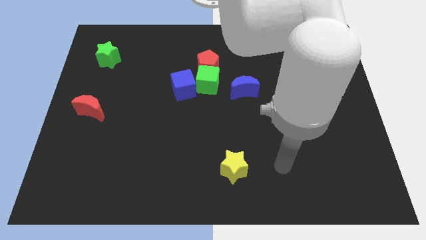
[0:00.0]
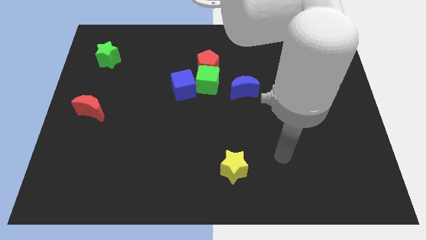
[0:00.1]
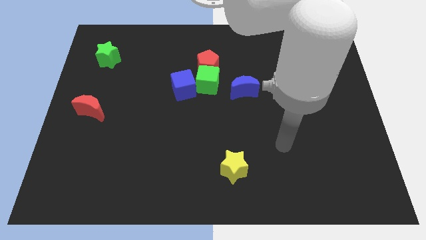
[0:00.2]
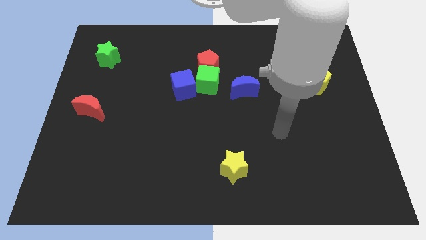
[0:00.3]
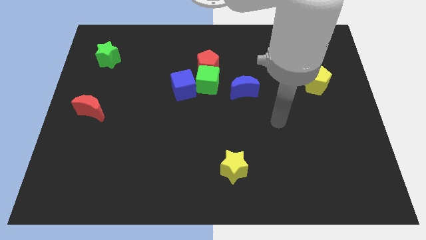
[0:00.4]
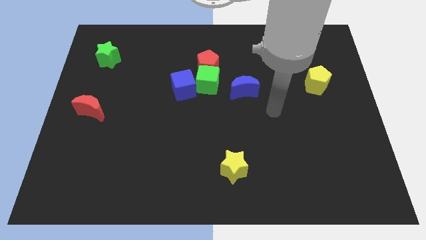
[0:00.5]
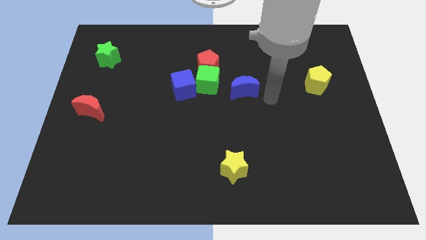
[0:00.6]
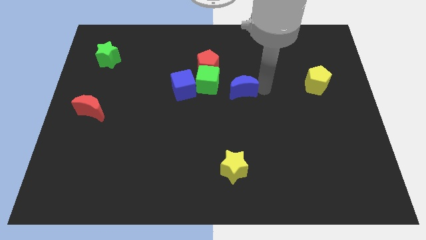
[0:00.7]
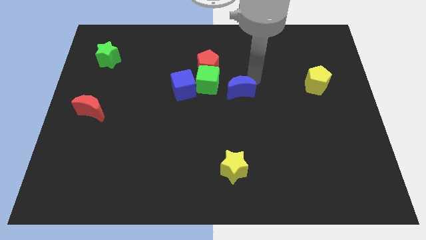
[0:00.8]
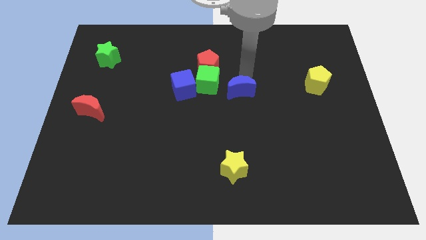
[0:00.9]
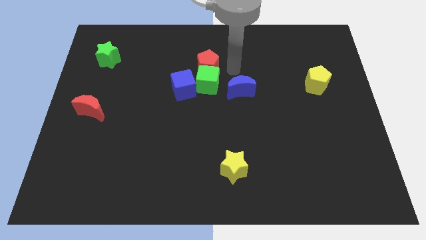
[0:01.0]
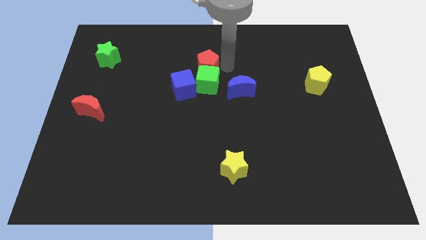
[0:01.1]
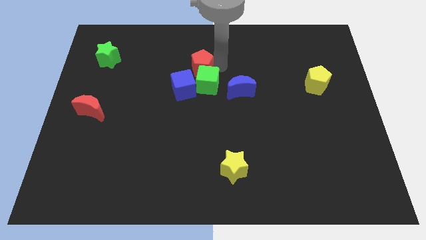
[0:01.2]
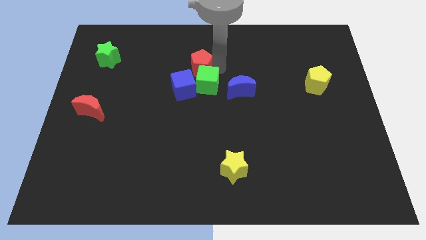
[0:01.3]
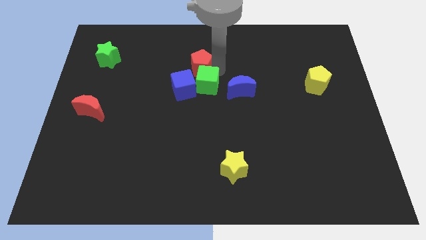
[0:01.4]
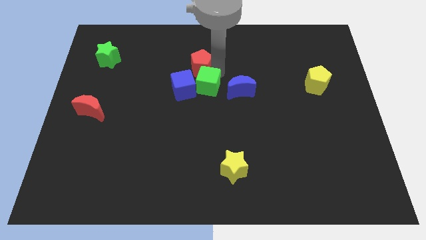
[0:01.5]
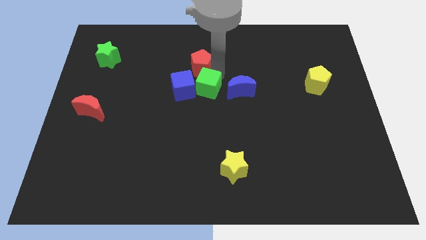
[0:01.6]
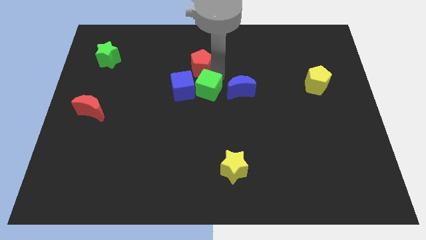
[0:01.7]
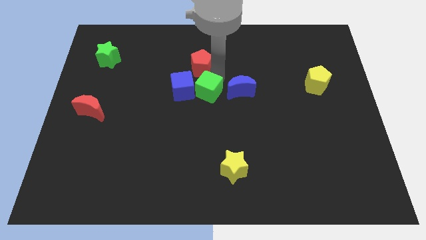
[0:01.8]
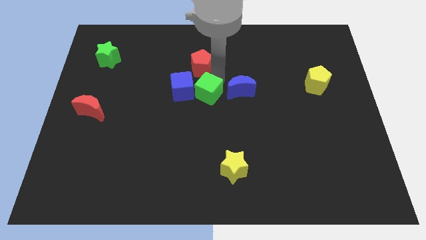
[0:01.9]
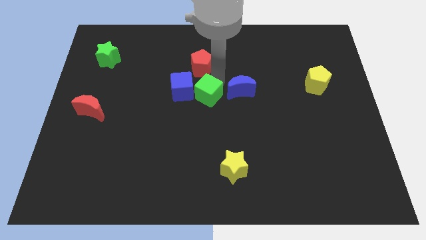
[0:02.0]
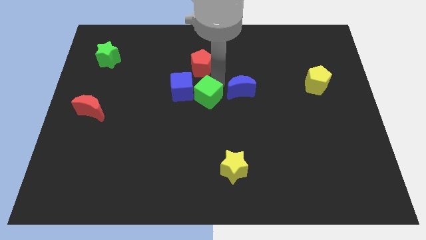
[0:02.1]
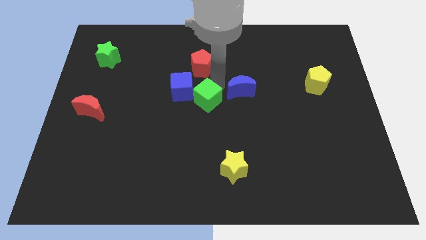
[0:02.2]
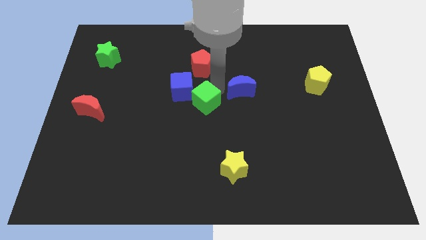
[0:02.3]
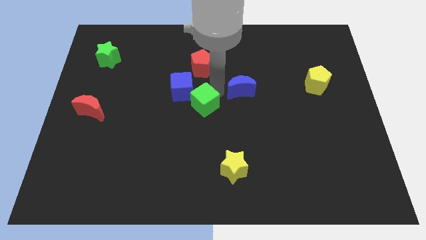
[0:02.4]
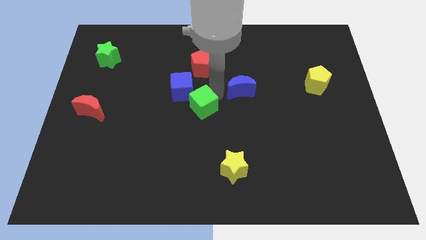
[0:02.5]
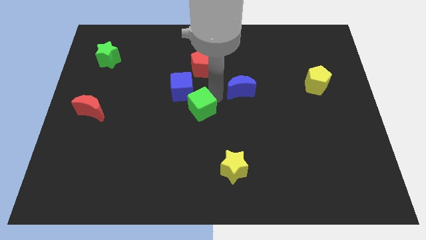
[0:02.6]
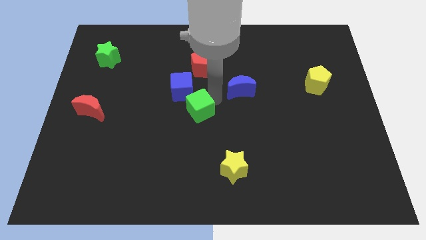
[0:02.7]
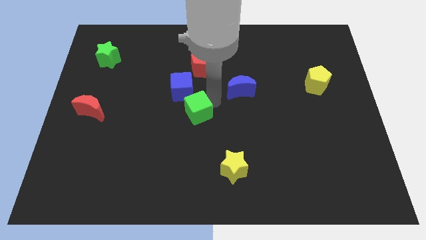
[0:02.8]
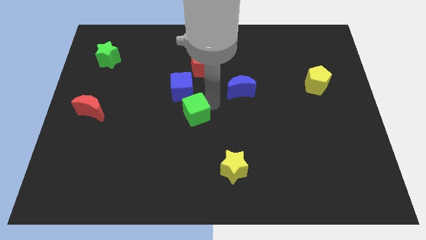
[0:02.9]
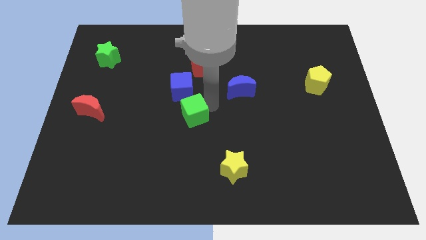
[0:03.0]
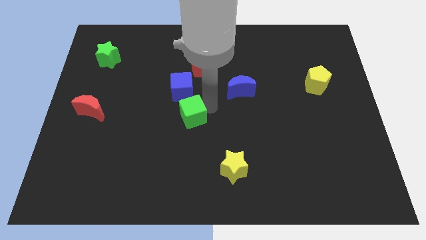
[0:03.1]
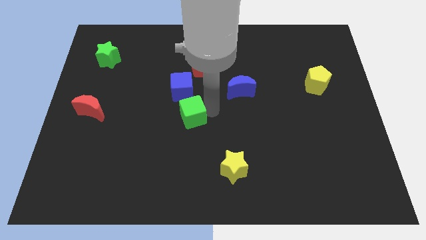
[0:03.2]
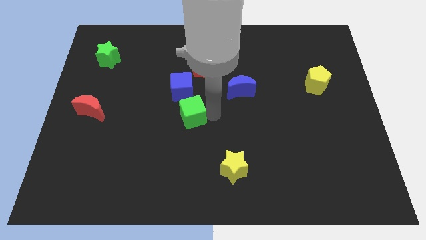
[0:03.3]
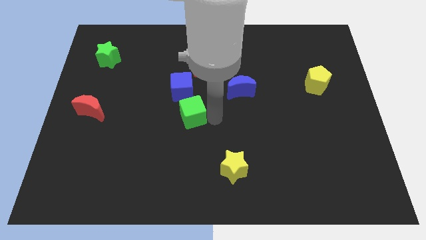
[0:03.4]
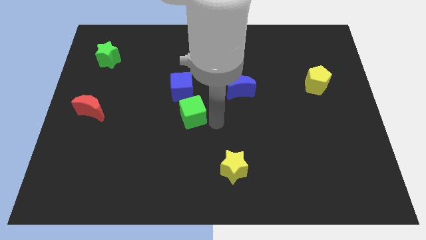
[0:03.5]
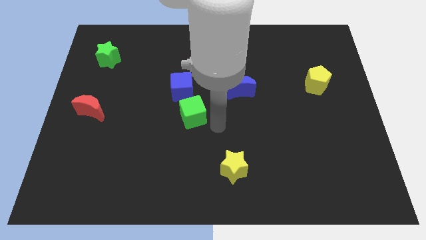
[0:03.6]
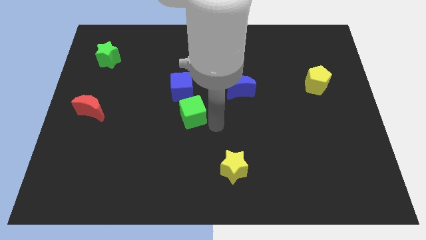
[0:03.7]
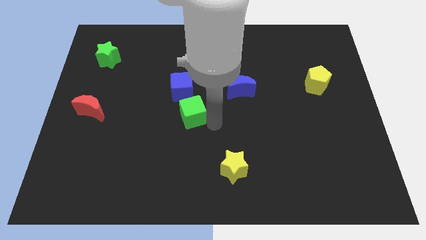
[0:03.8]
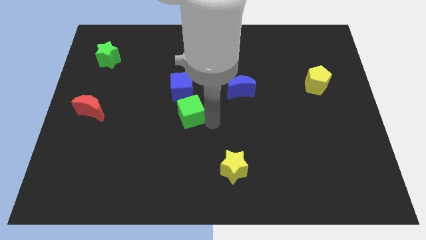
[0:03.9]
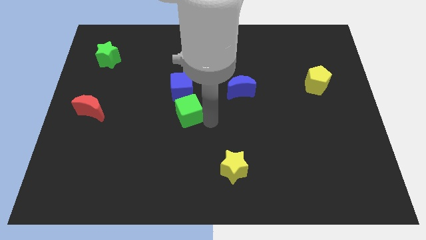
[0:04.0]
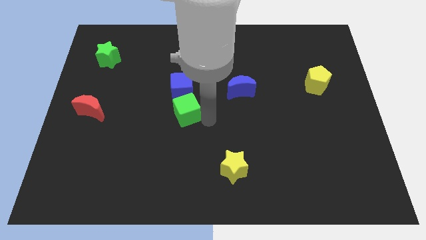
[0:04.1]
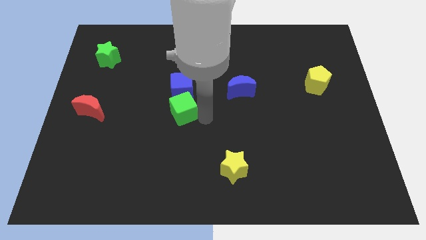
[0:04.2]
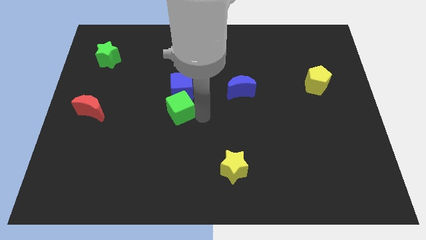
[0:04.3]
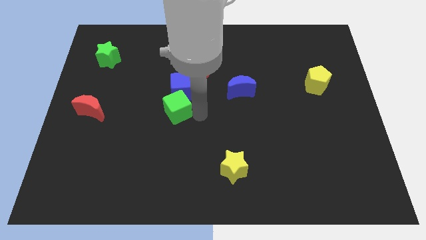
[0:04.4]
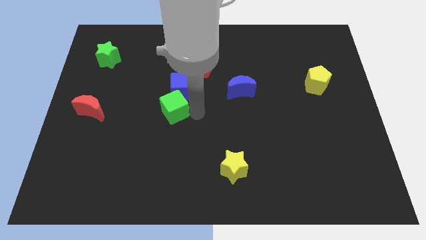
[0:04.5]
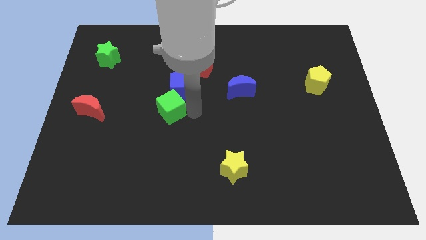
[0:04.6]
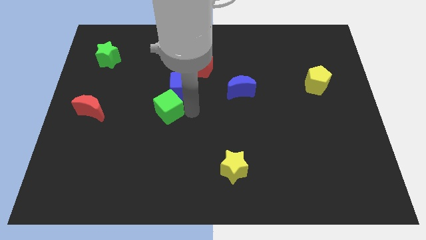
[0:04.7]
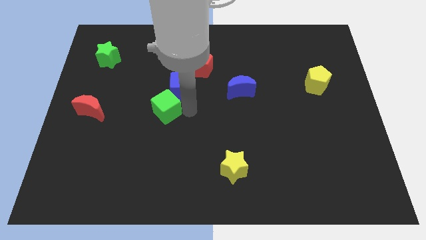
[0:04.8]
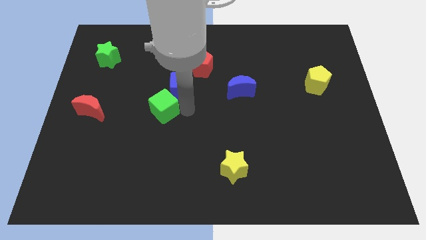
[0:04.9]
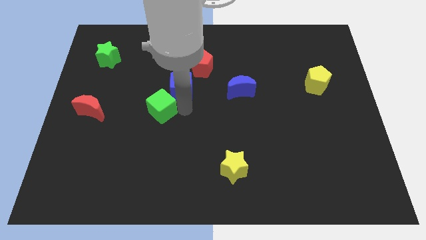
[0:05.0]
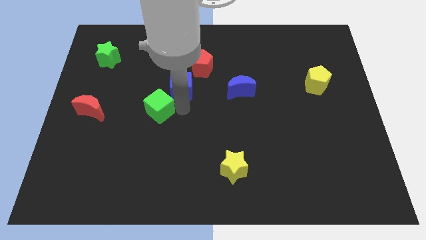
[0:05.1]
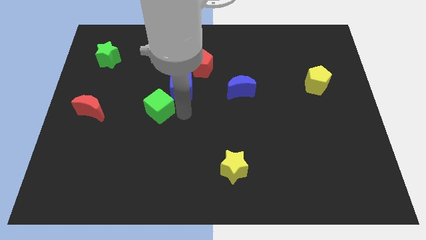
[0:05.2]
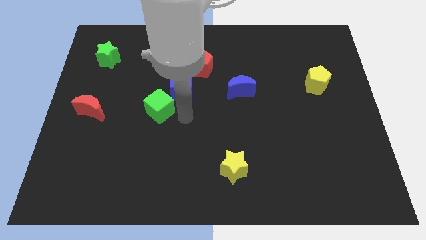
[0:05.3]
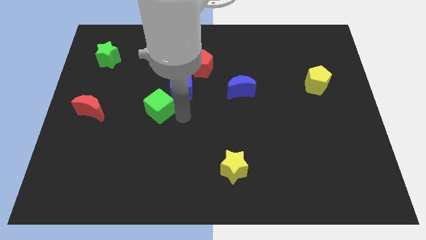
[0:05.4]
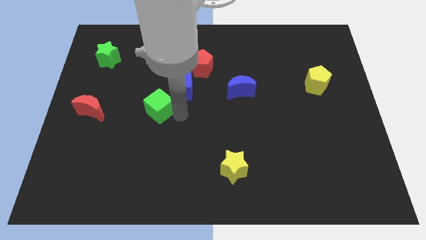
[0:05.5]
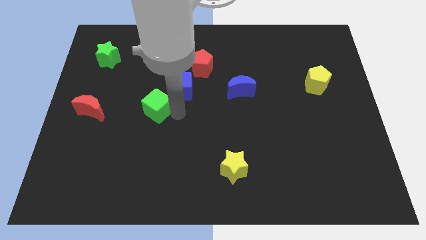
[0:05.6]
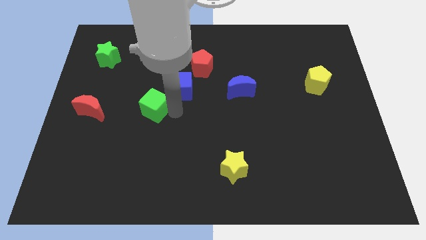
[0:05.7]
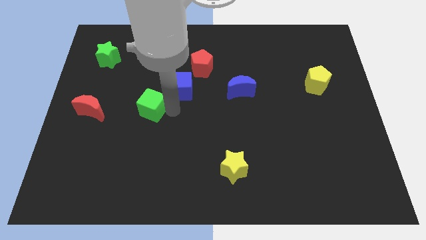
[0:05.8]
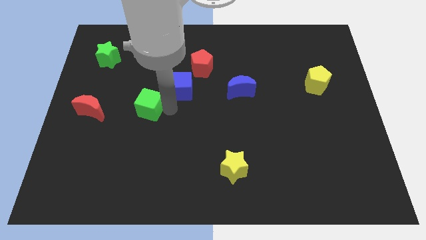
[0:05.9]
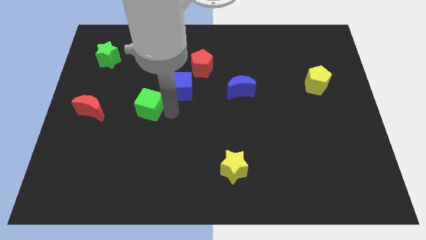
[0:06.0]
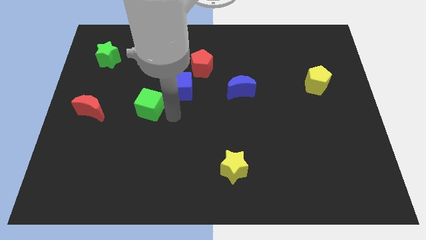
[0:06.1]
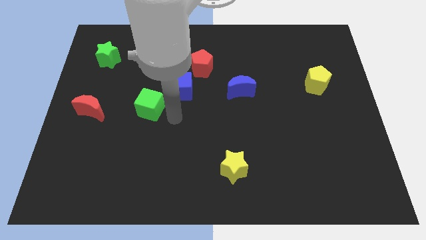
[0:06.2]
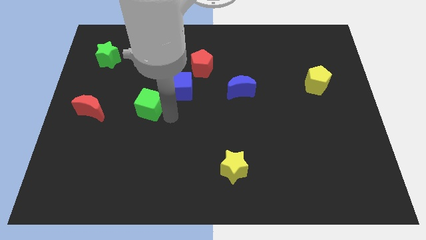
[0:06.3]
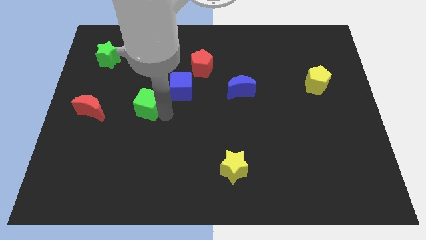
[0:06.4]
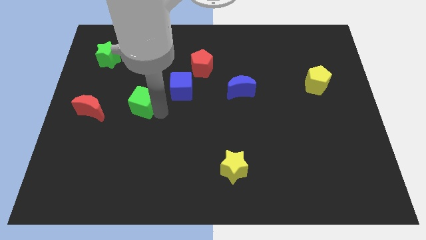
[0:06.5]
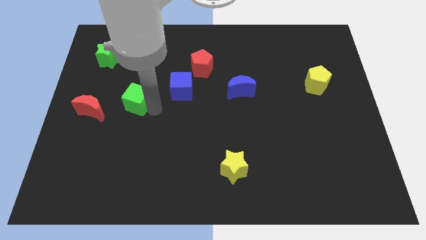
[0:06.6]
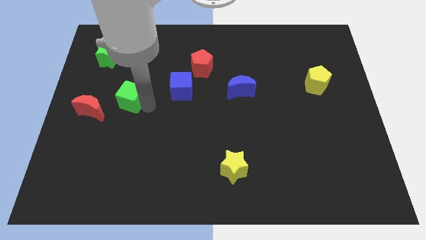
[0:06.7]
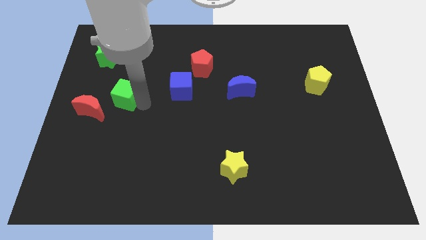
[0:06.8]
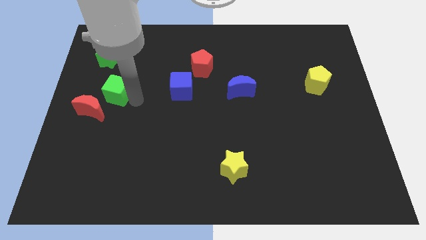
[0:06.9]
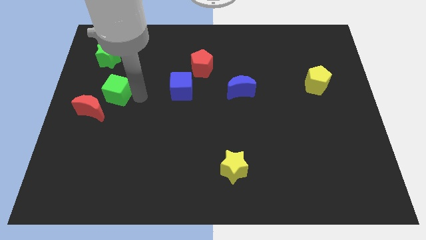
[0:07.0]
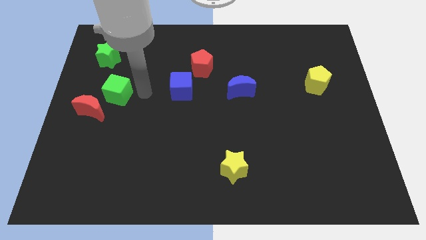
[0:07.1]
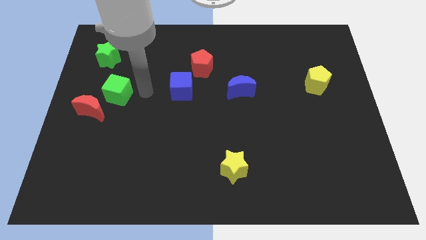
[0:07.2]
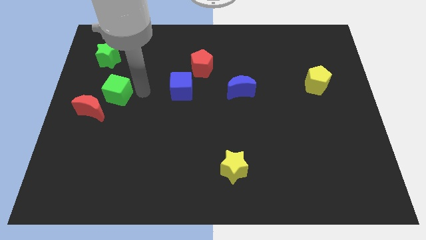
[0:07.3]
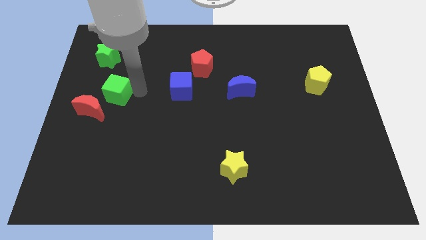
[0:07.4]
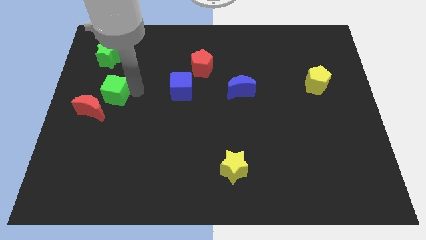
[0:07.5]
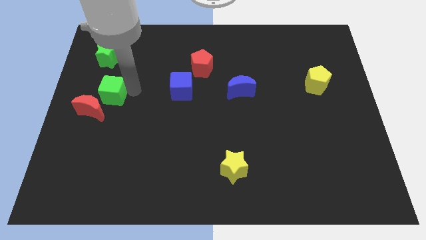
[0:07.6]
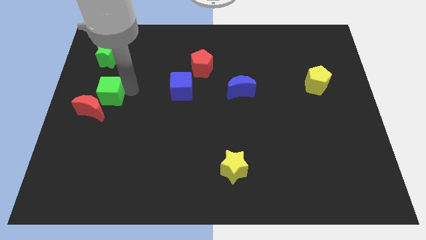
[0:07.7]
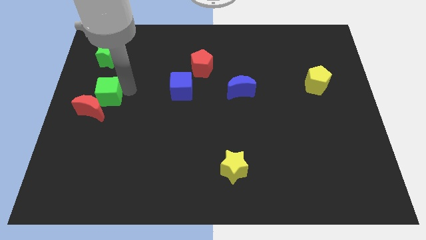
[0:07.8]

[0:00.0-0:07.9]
put the green cube to the center left

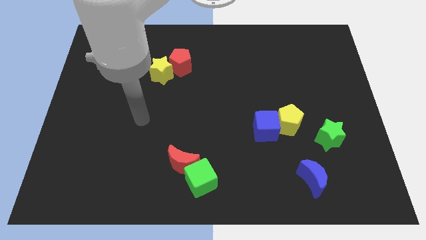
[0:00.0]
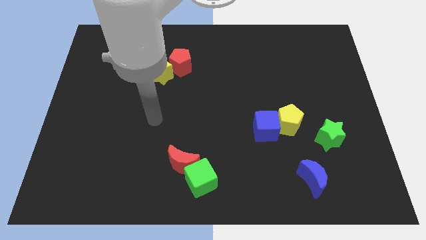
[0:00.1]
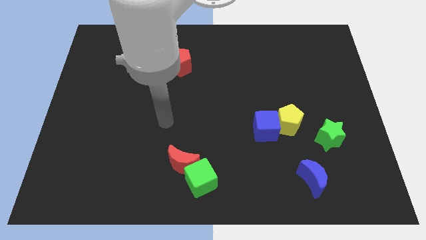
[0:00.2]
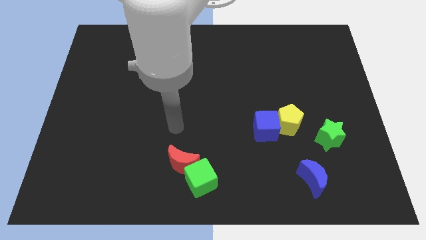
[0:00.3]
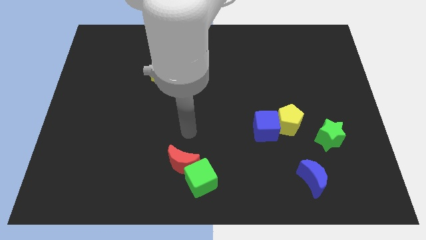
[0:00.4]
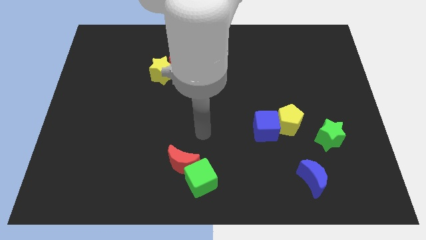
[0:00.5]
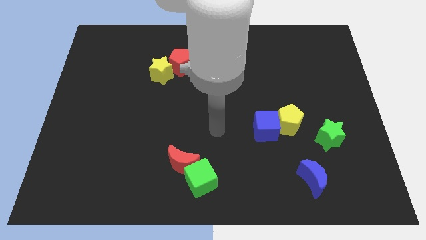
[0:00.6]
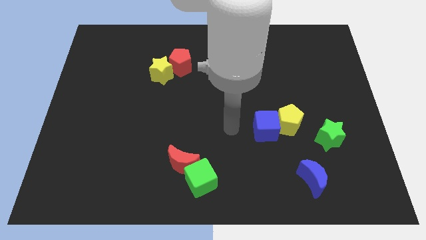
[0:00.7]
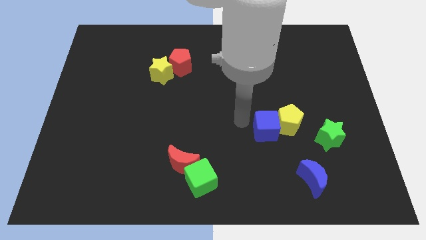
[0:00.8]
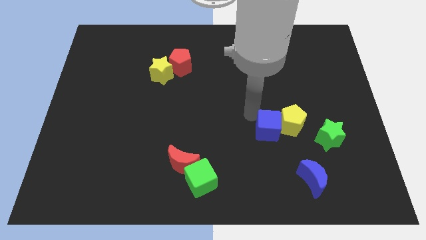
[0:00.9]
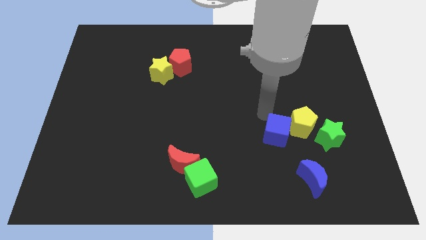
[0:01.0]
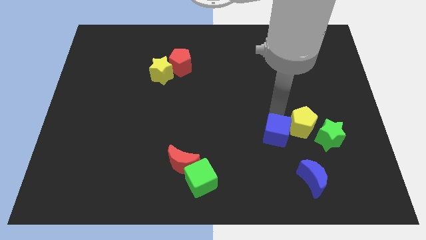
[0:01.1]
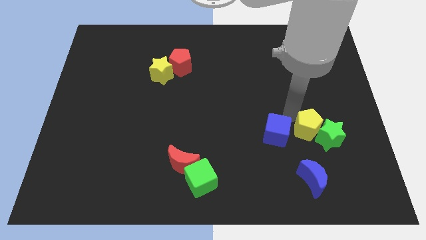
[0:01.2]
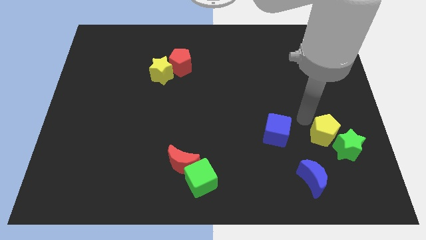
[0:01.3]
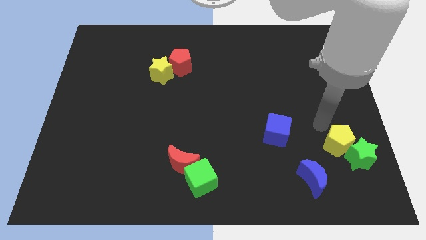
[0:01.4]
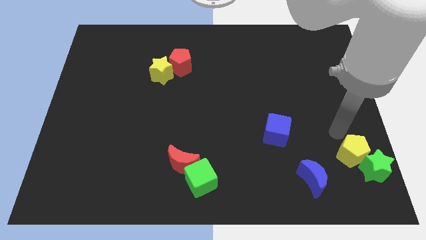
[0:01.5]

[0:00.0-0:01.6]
slide the green star to the lower right corner
